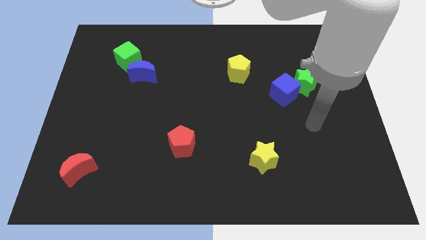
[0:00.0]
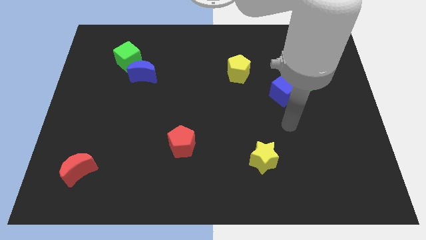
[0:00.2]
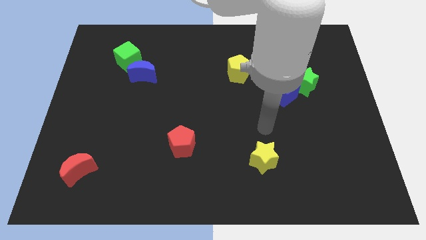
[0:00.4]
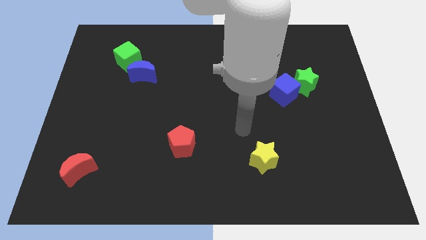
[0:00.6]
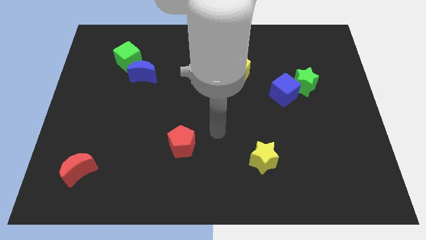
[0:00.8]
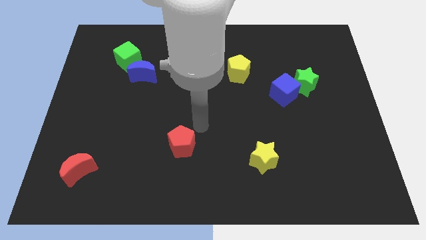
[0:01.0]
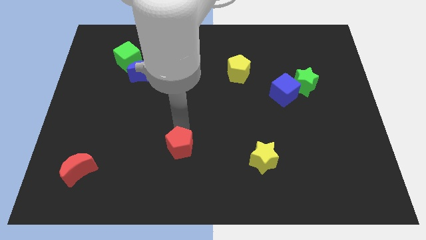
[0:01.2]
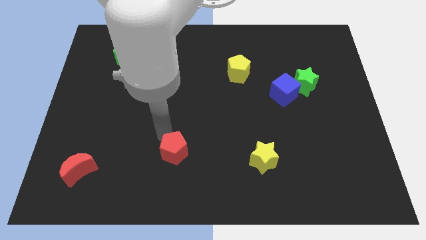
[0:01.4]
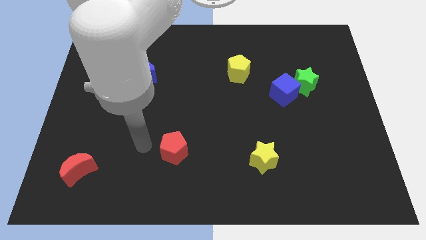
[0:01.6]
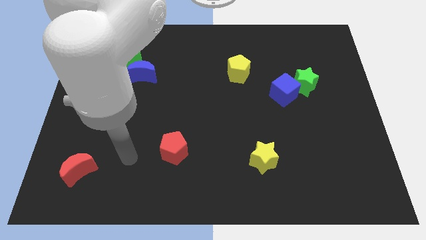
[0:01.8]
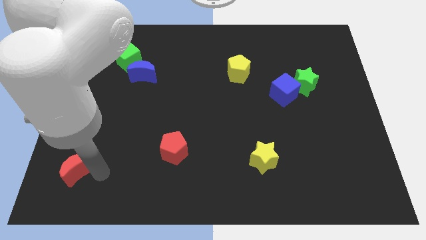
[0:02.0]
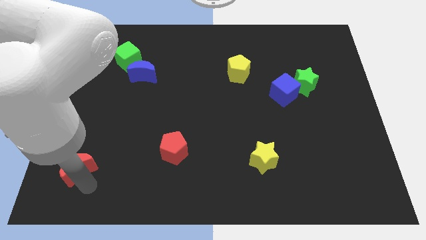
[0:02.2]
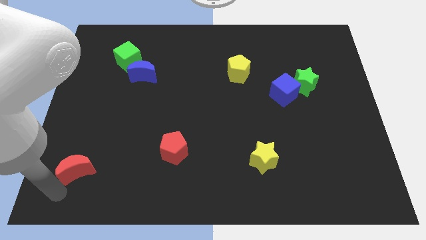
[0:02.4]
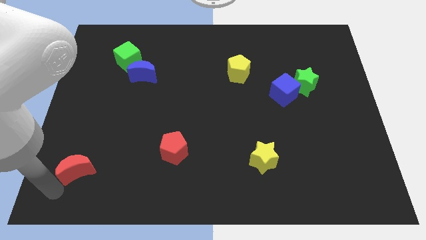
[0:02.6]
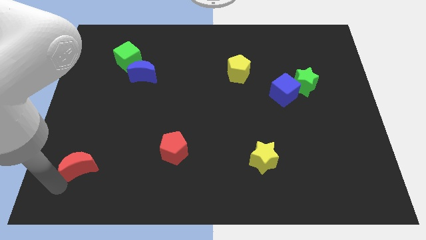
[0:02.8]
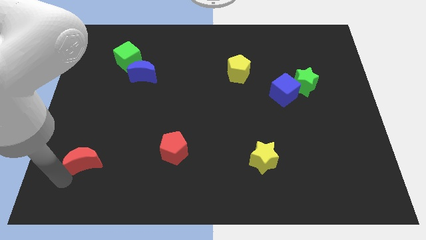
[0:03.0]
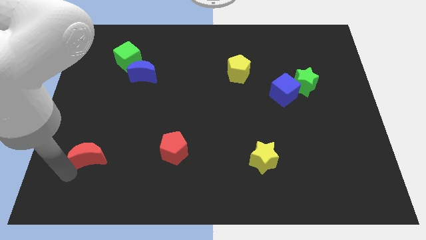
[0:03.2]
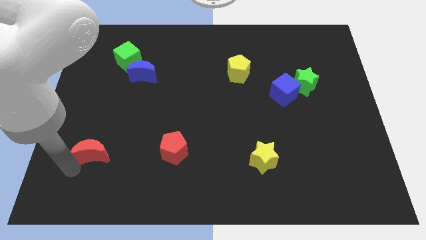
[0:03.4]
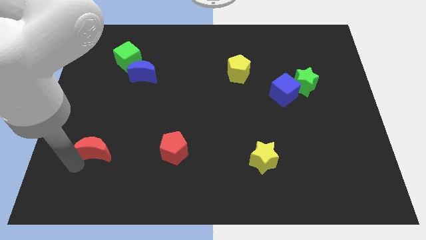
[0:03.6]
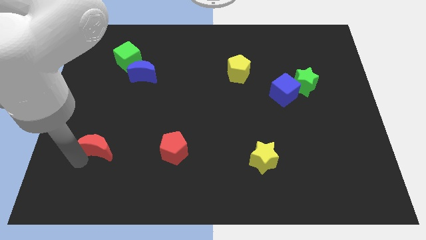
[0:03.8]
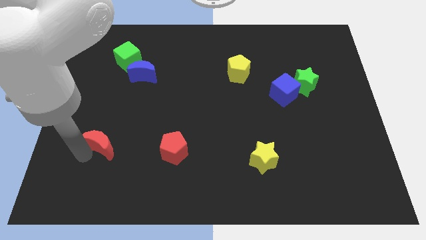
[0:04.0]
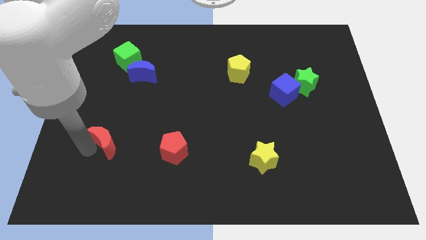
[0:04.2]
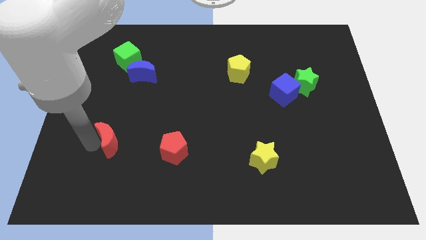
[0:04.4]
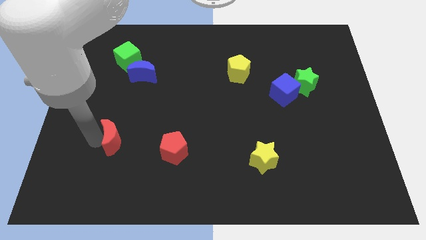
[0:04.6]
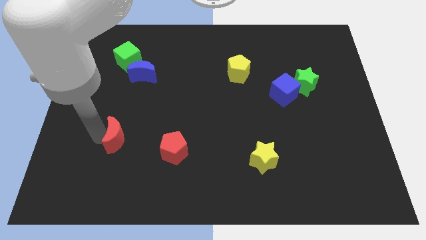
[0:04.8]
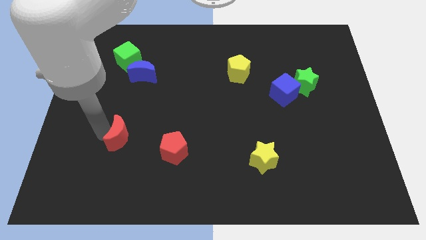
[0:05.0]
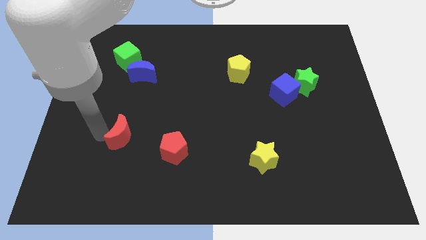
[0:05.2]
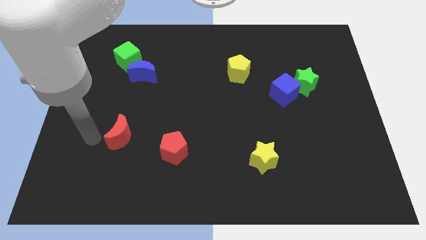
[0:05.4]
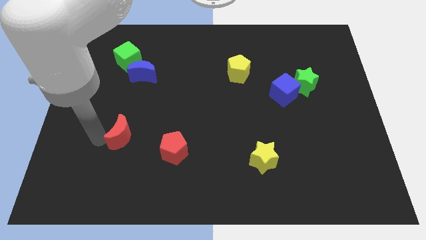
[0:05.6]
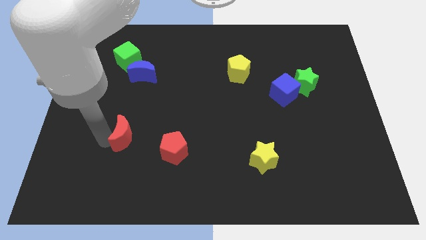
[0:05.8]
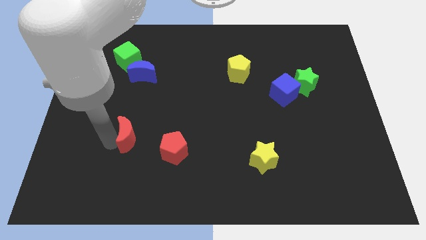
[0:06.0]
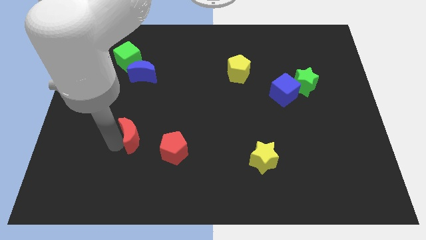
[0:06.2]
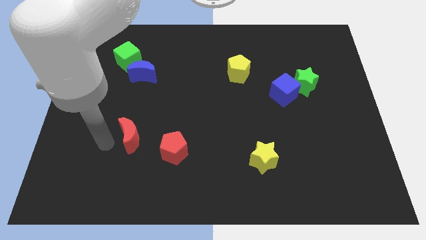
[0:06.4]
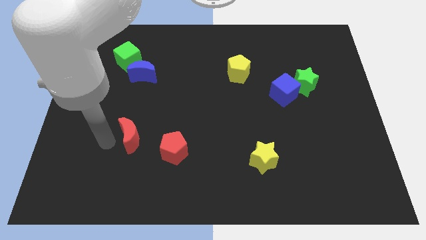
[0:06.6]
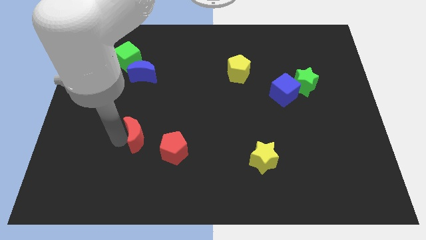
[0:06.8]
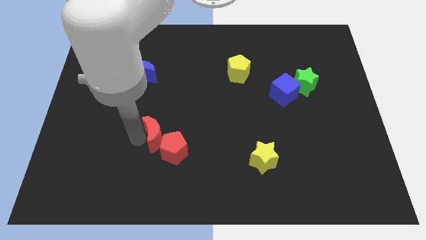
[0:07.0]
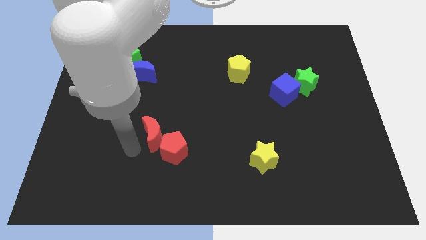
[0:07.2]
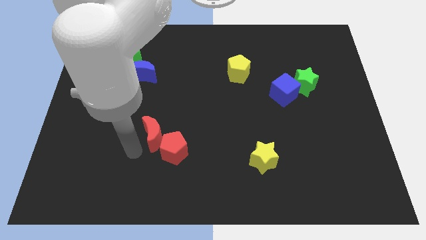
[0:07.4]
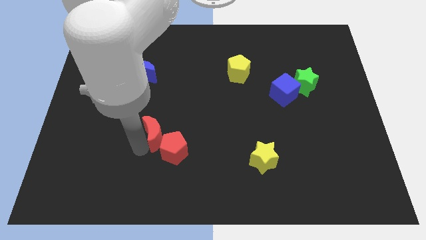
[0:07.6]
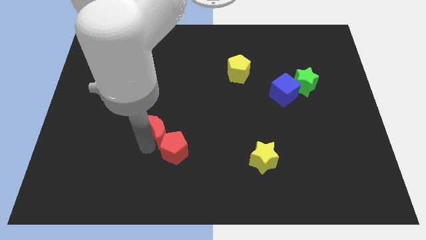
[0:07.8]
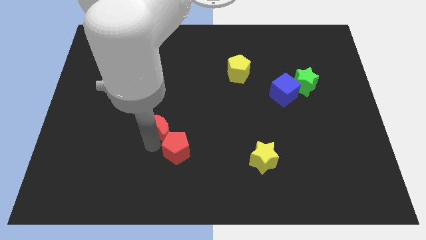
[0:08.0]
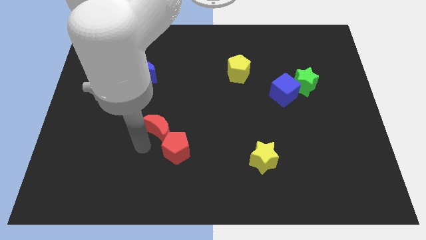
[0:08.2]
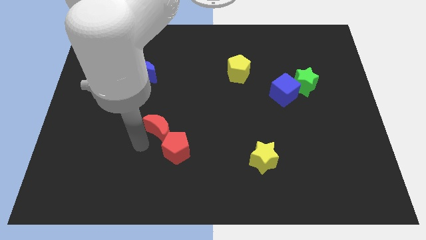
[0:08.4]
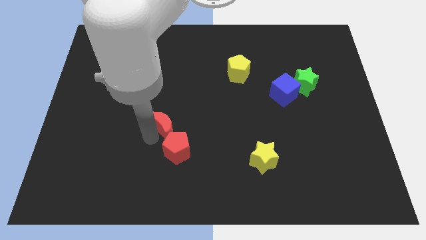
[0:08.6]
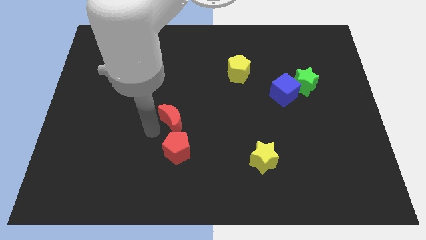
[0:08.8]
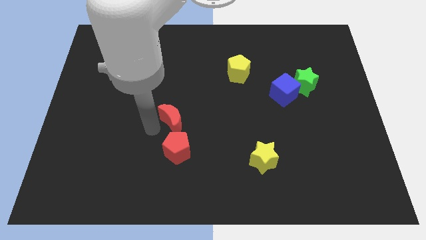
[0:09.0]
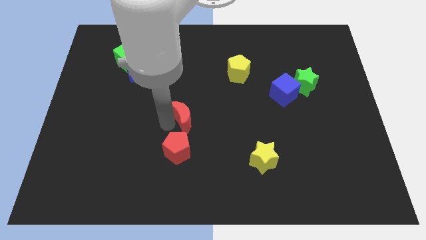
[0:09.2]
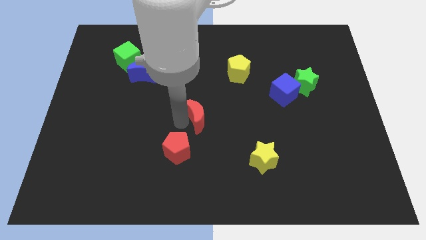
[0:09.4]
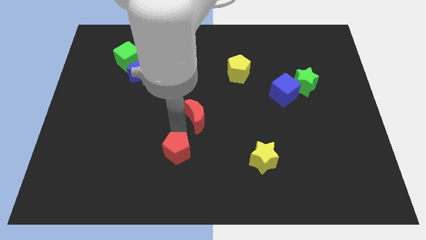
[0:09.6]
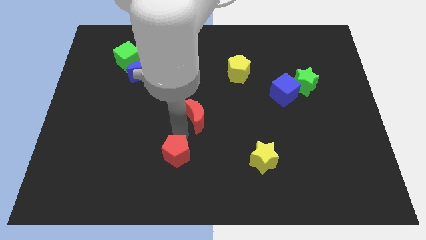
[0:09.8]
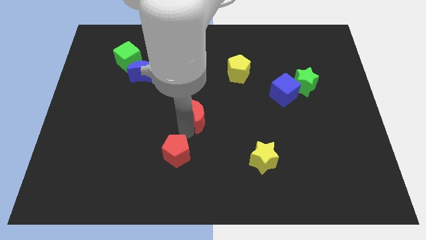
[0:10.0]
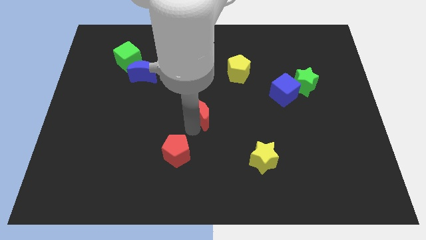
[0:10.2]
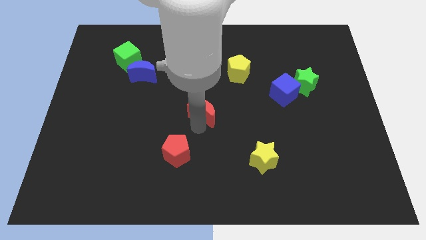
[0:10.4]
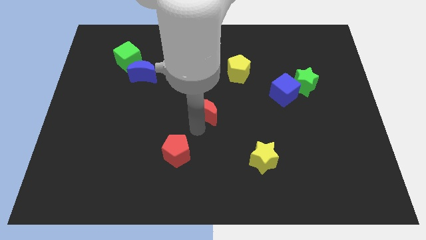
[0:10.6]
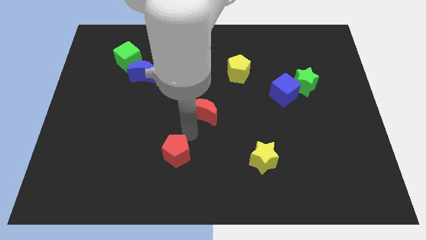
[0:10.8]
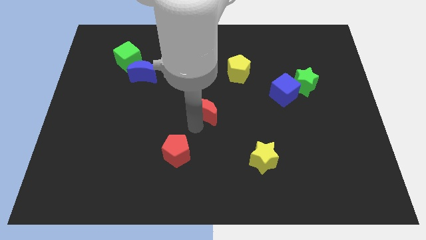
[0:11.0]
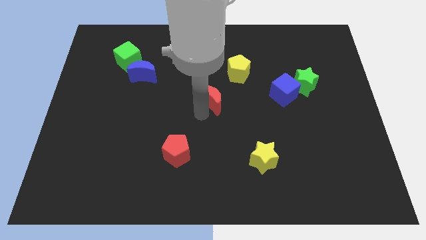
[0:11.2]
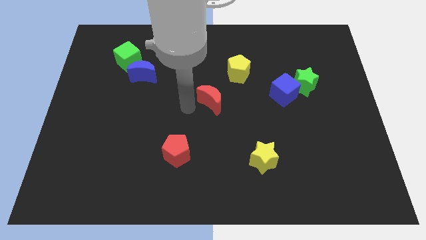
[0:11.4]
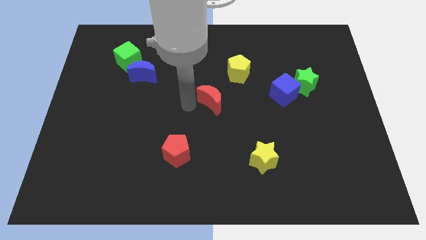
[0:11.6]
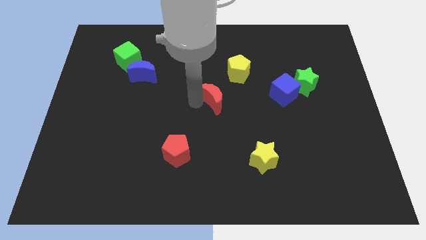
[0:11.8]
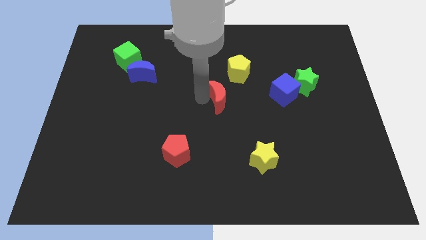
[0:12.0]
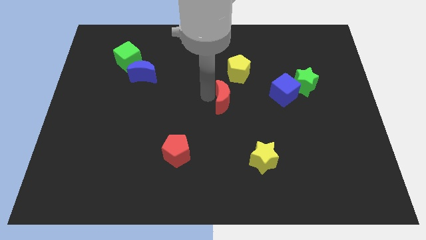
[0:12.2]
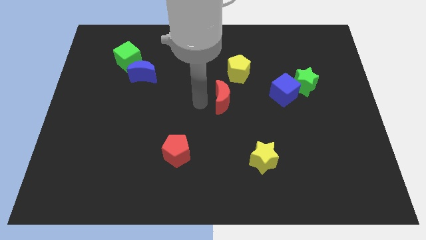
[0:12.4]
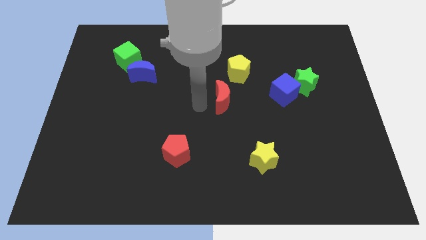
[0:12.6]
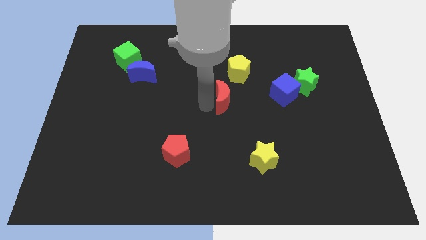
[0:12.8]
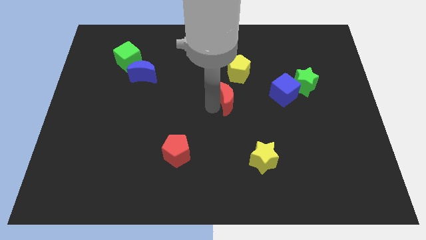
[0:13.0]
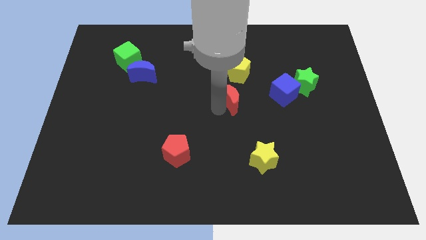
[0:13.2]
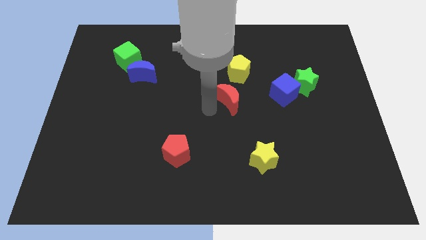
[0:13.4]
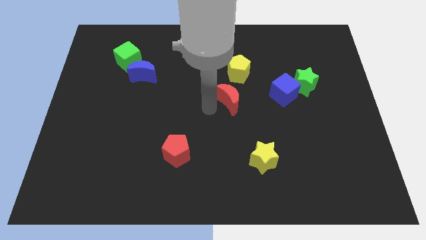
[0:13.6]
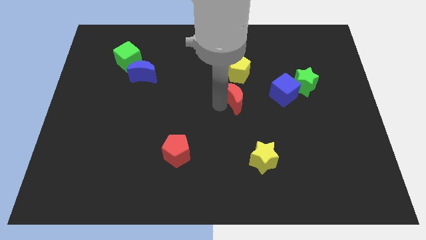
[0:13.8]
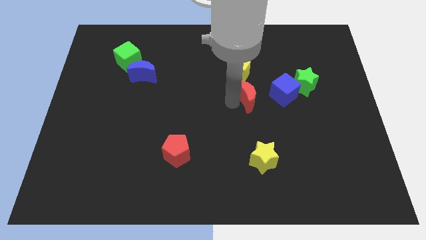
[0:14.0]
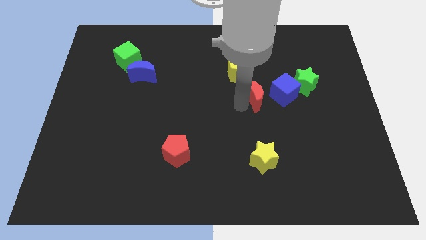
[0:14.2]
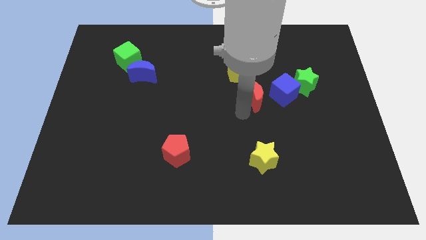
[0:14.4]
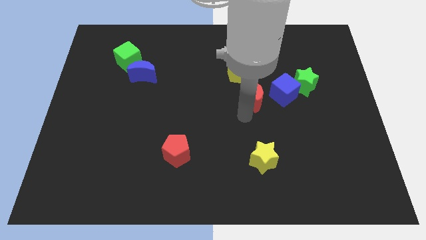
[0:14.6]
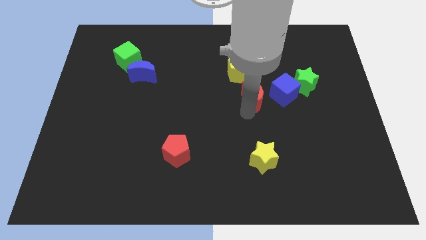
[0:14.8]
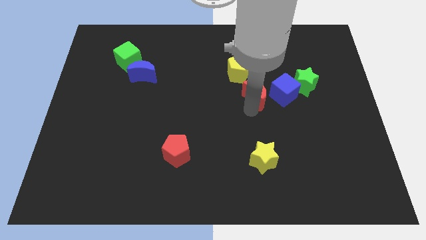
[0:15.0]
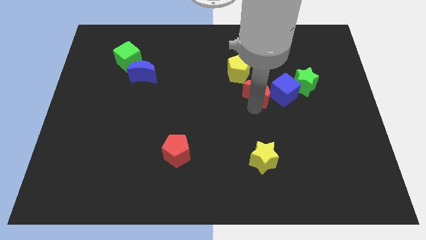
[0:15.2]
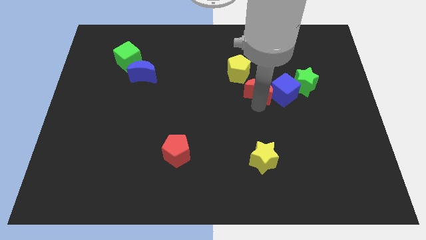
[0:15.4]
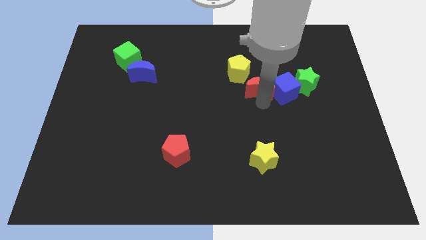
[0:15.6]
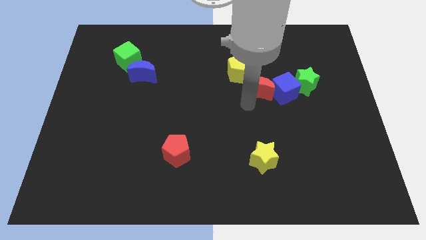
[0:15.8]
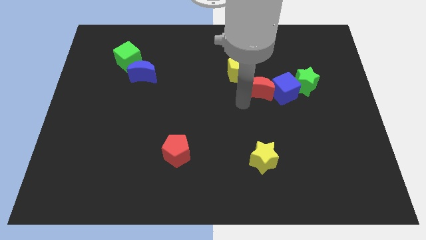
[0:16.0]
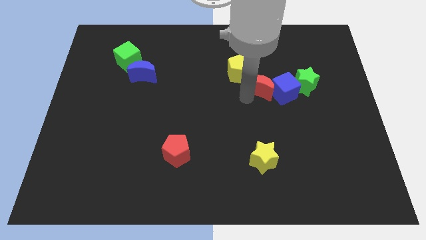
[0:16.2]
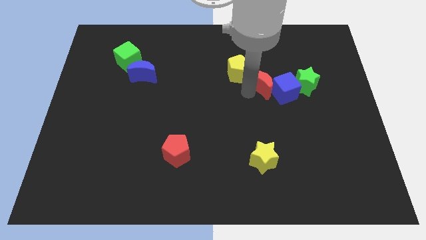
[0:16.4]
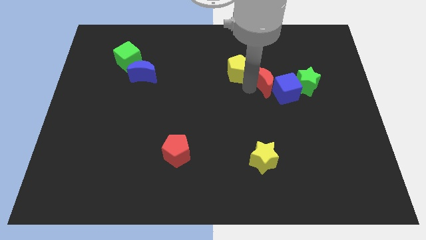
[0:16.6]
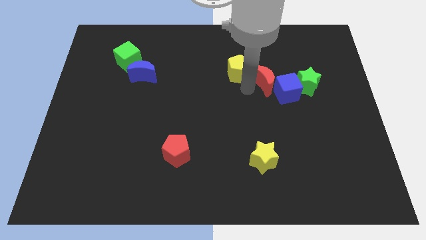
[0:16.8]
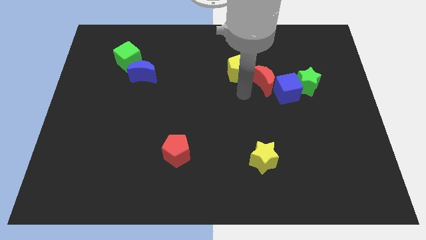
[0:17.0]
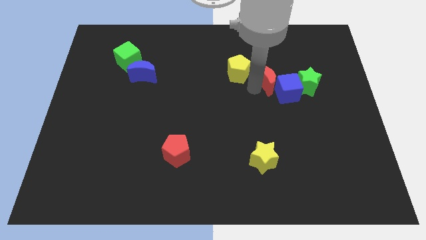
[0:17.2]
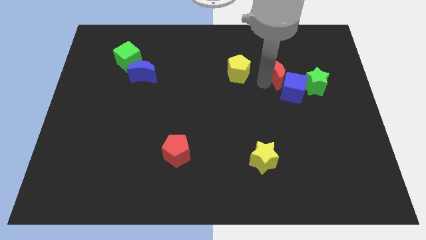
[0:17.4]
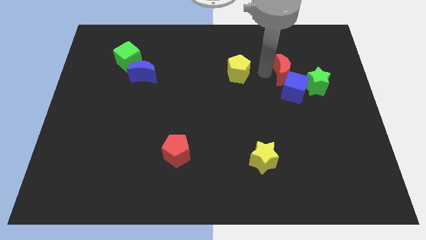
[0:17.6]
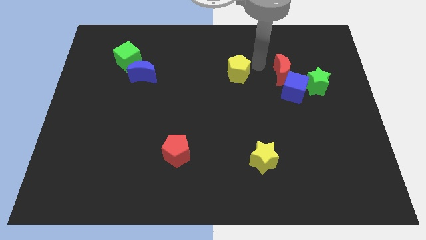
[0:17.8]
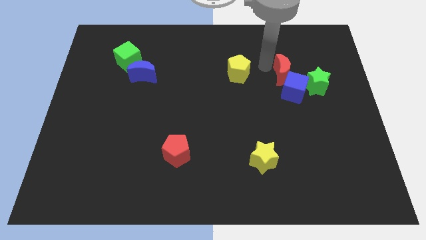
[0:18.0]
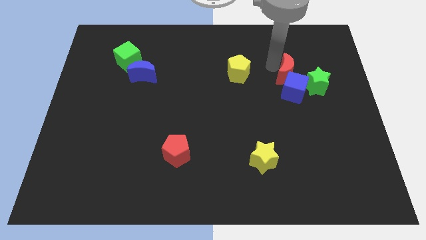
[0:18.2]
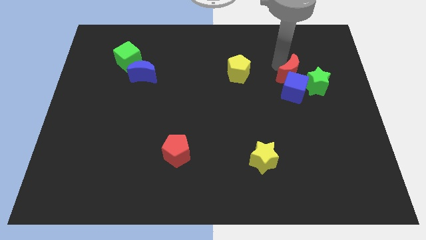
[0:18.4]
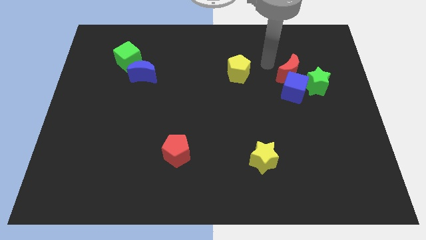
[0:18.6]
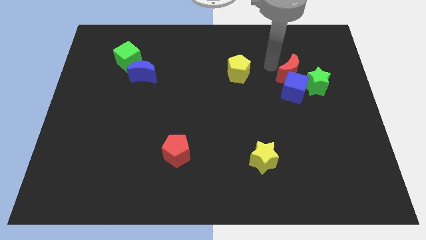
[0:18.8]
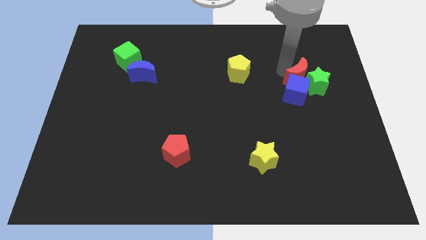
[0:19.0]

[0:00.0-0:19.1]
put the red moon to the green star
